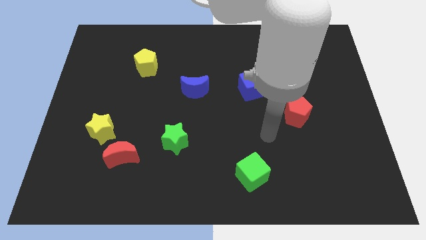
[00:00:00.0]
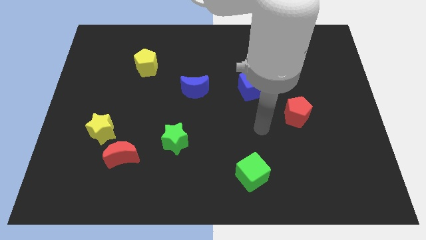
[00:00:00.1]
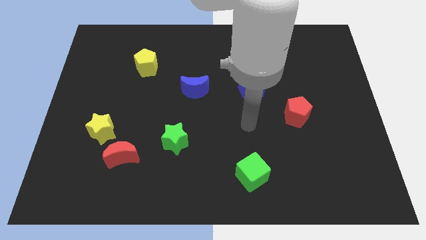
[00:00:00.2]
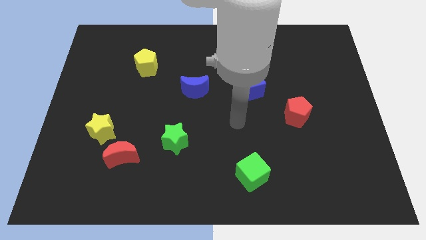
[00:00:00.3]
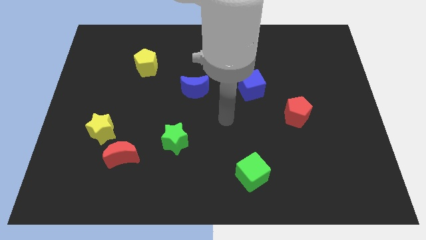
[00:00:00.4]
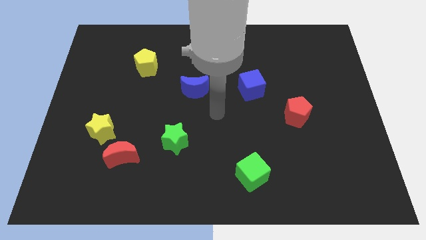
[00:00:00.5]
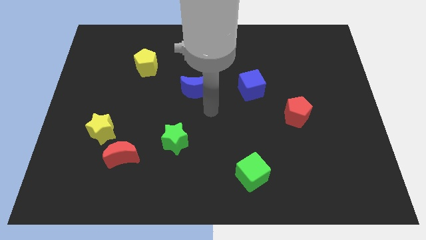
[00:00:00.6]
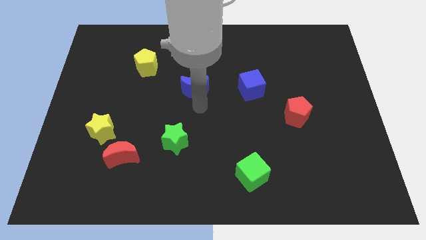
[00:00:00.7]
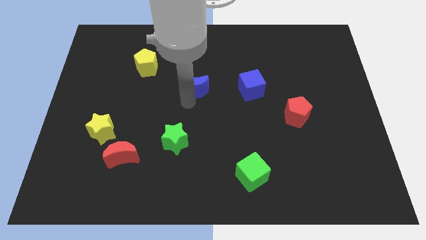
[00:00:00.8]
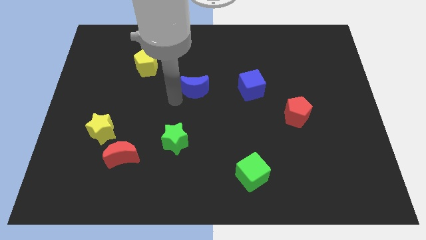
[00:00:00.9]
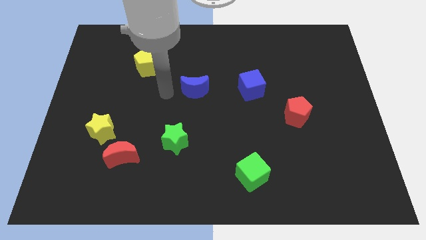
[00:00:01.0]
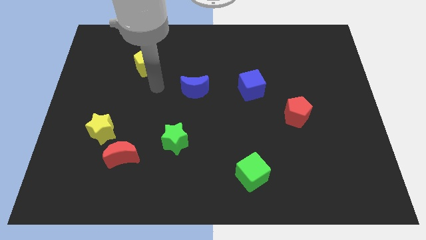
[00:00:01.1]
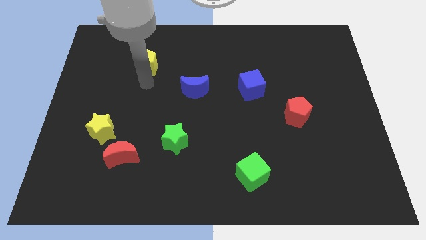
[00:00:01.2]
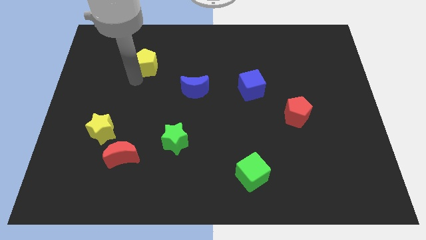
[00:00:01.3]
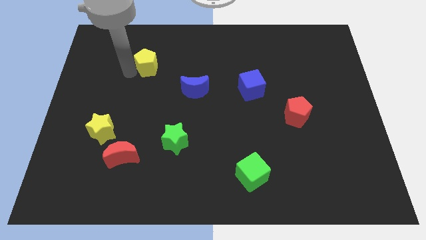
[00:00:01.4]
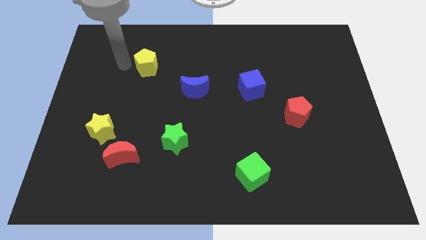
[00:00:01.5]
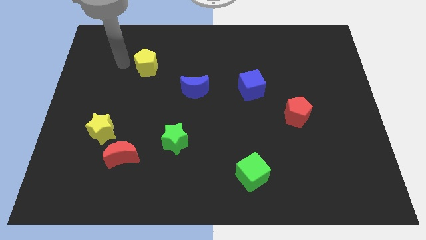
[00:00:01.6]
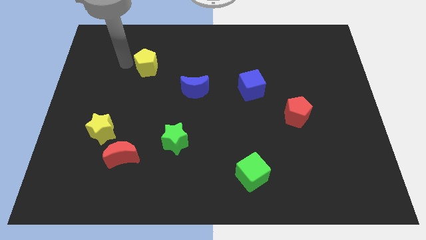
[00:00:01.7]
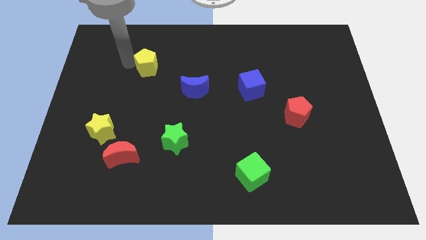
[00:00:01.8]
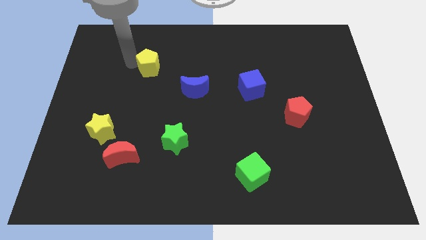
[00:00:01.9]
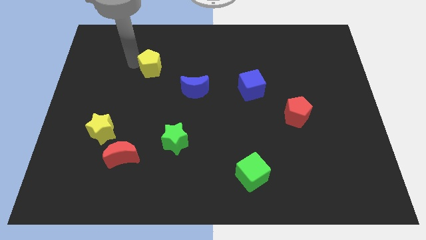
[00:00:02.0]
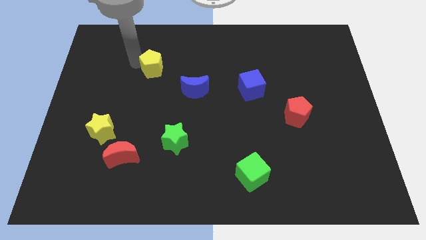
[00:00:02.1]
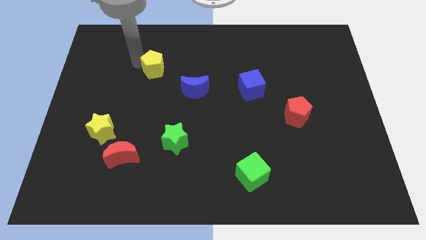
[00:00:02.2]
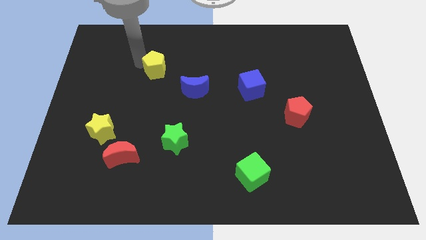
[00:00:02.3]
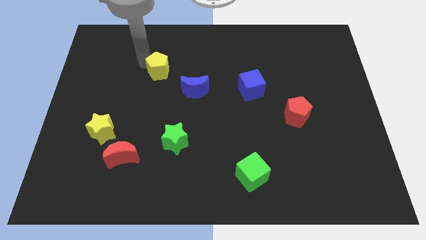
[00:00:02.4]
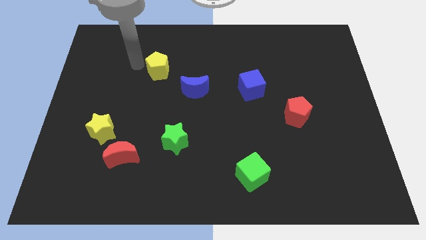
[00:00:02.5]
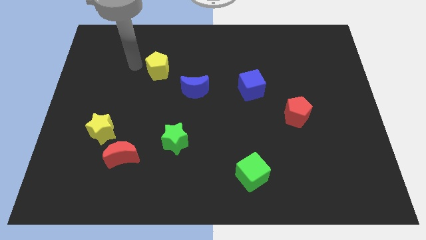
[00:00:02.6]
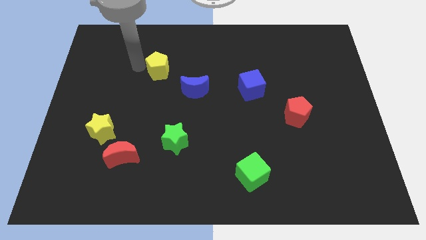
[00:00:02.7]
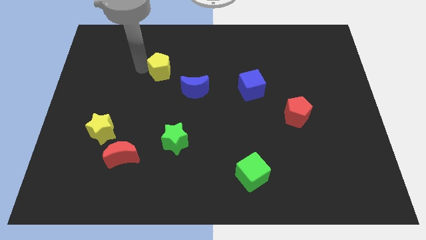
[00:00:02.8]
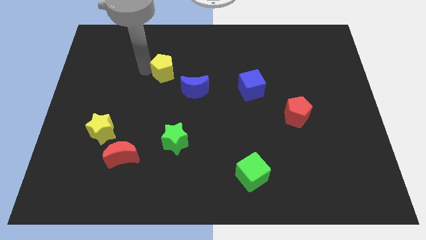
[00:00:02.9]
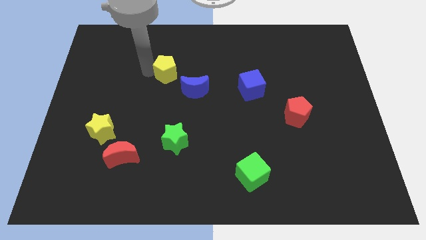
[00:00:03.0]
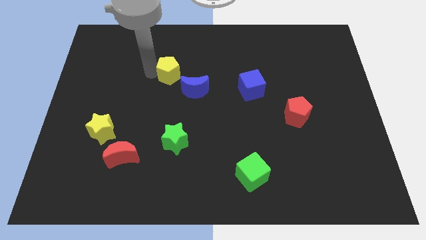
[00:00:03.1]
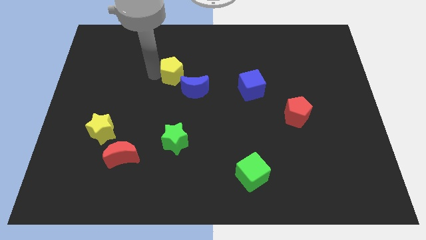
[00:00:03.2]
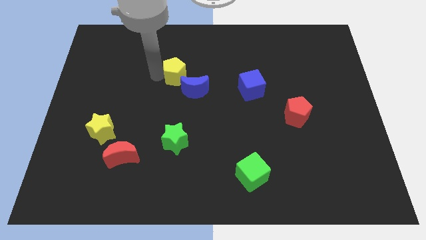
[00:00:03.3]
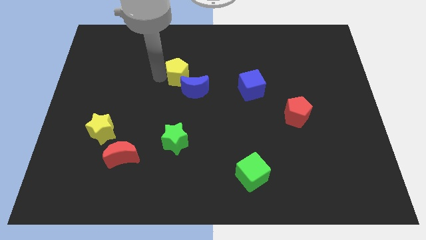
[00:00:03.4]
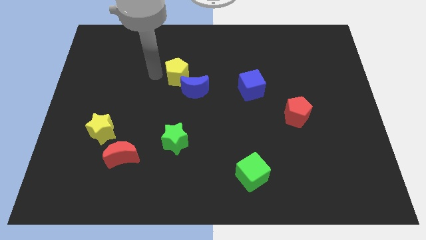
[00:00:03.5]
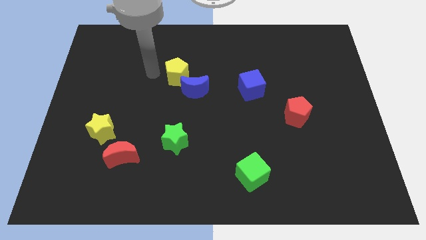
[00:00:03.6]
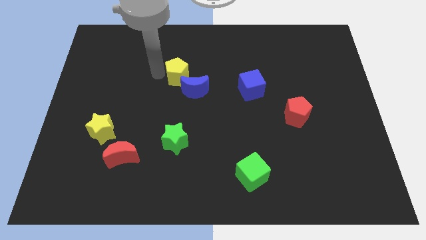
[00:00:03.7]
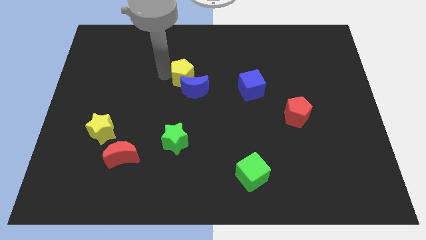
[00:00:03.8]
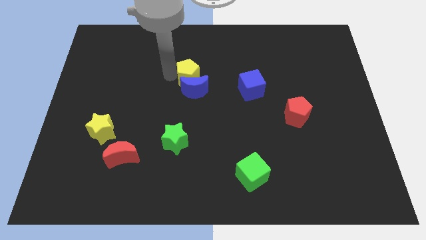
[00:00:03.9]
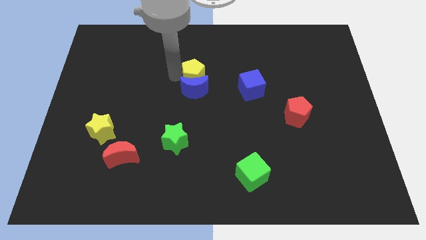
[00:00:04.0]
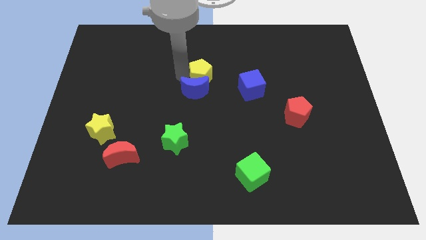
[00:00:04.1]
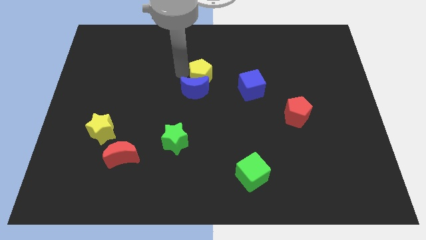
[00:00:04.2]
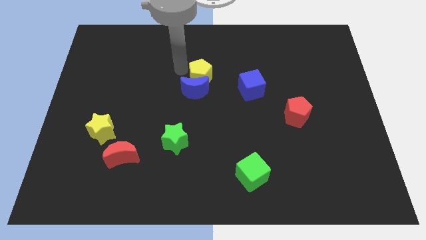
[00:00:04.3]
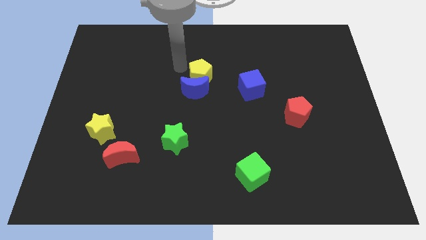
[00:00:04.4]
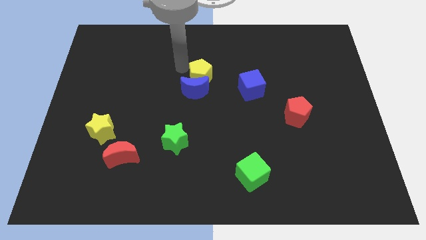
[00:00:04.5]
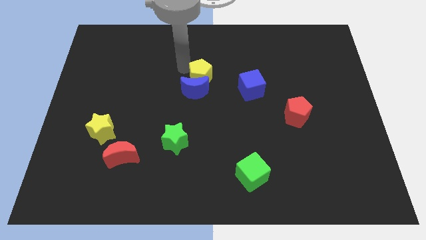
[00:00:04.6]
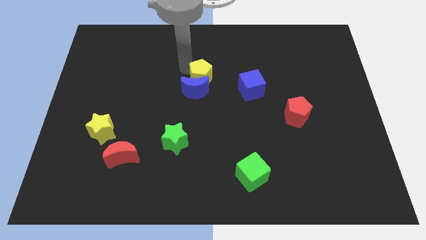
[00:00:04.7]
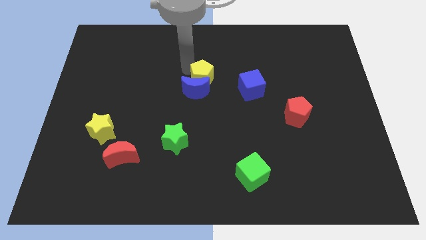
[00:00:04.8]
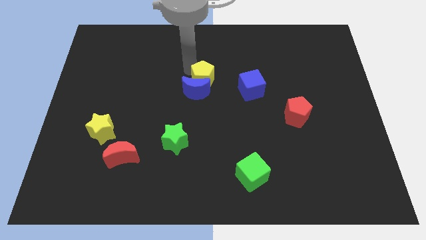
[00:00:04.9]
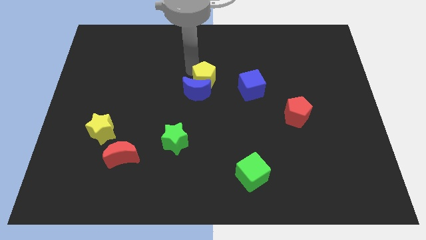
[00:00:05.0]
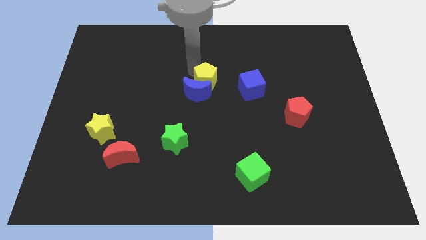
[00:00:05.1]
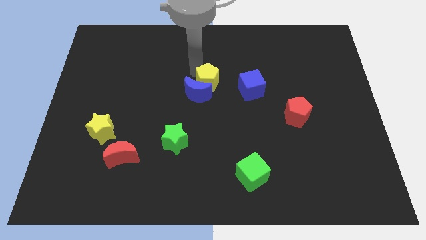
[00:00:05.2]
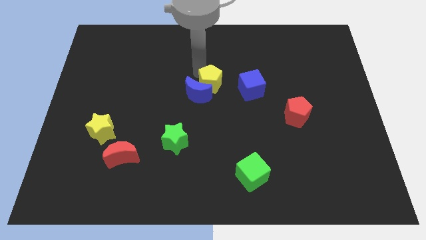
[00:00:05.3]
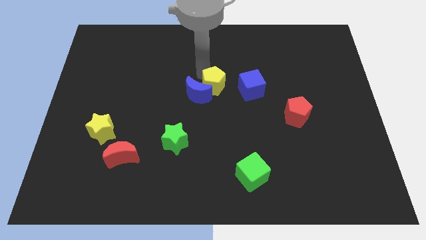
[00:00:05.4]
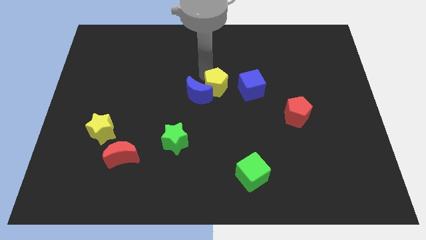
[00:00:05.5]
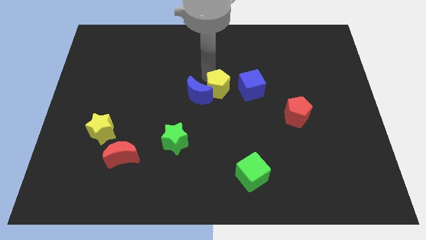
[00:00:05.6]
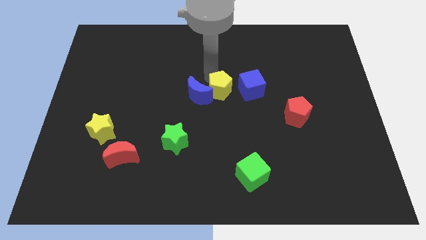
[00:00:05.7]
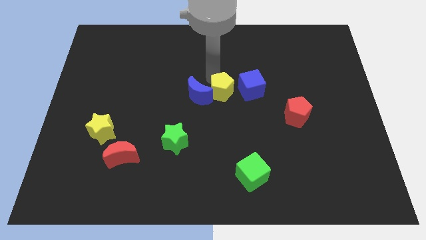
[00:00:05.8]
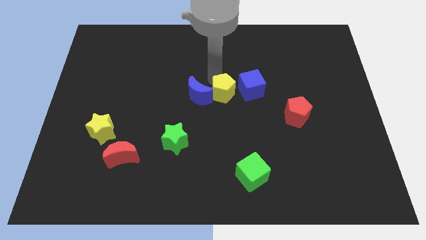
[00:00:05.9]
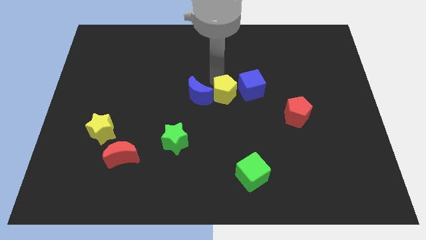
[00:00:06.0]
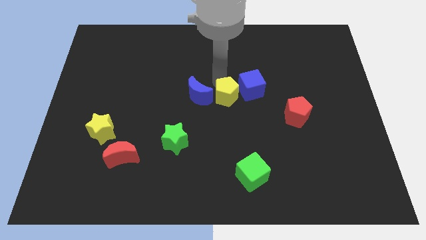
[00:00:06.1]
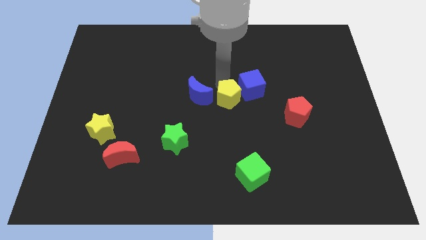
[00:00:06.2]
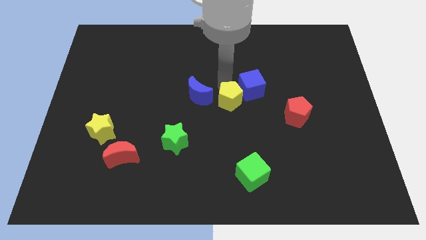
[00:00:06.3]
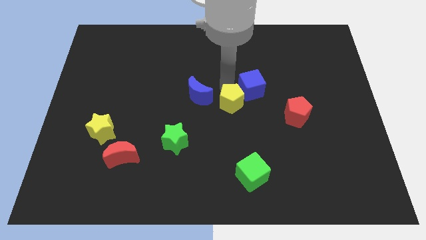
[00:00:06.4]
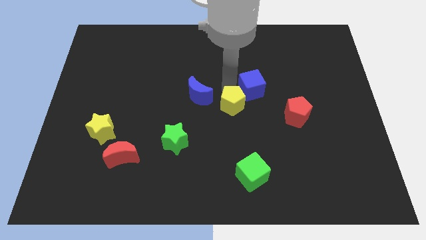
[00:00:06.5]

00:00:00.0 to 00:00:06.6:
push the yellow pentagon to the left of the red pentagon

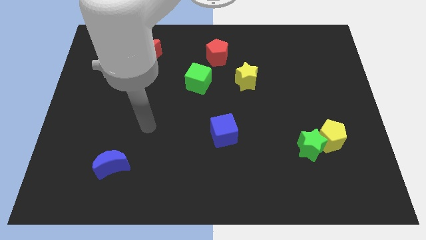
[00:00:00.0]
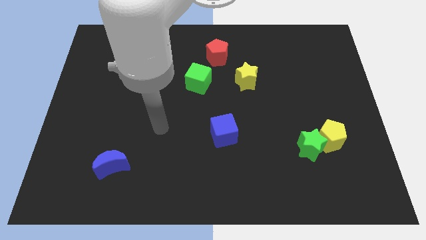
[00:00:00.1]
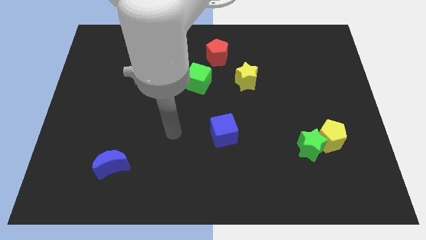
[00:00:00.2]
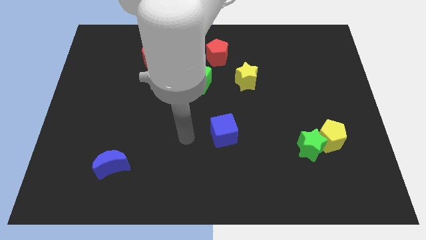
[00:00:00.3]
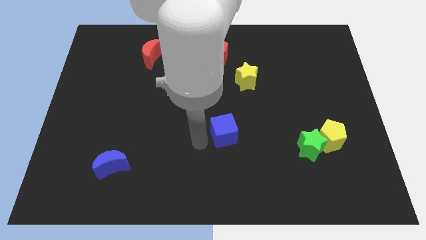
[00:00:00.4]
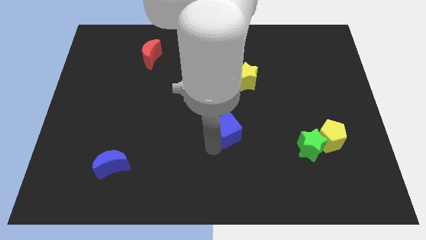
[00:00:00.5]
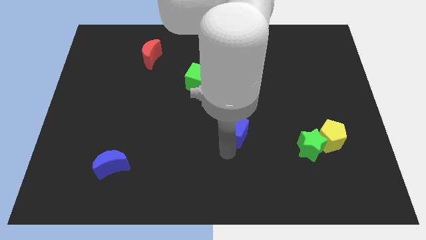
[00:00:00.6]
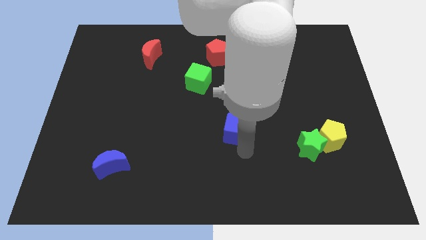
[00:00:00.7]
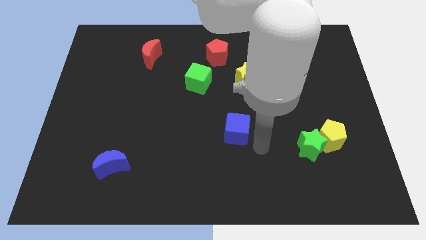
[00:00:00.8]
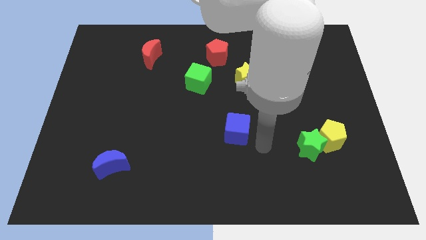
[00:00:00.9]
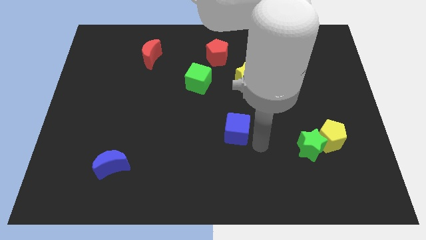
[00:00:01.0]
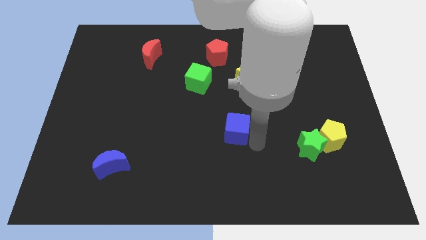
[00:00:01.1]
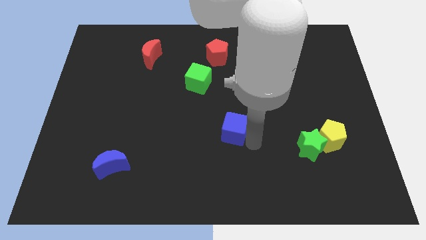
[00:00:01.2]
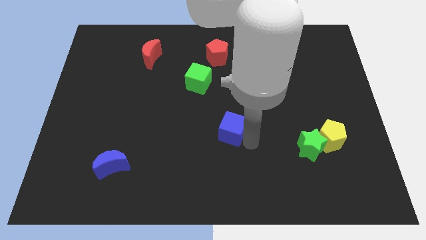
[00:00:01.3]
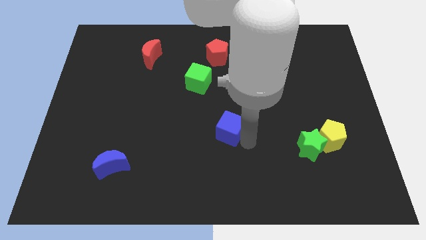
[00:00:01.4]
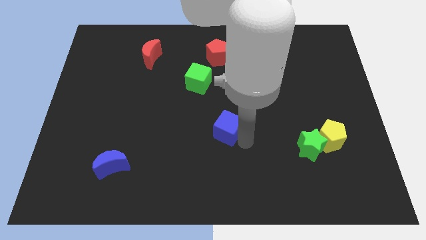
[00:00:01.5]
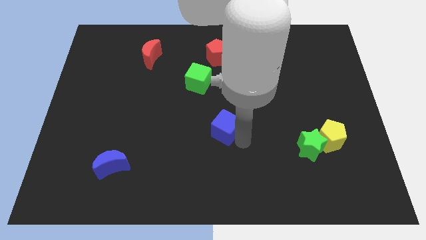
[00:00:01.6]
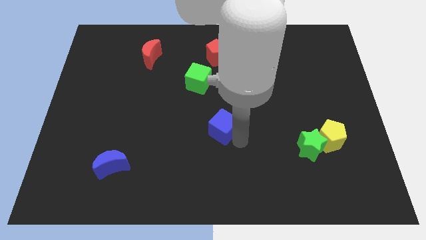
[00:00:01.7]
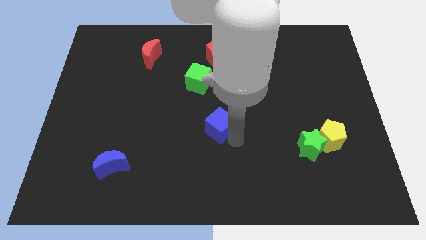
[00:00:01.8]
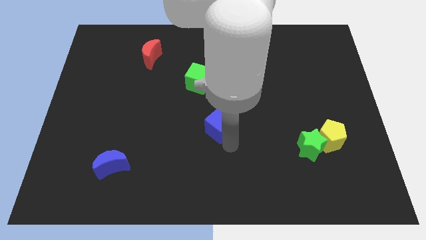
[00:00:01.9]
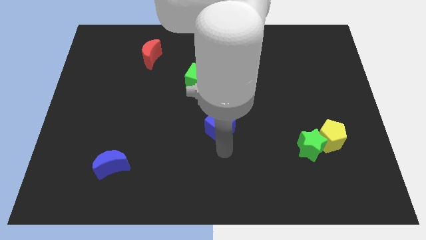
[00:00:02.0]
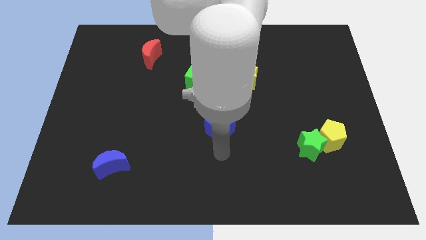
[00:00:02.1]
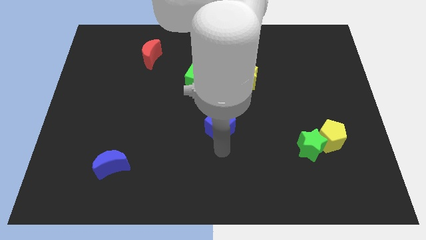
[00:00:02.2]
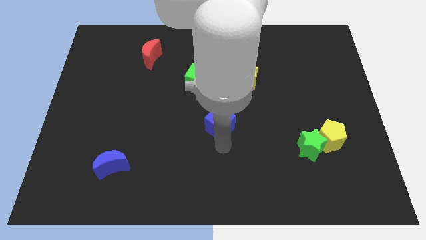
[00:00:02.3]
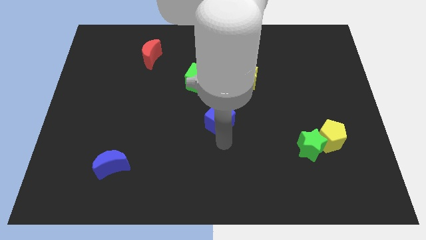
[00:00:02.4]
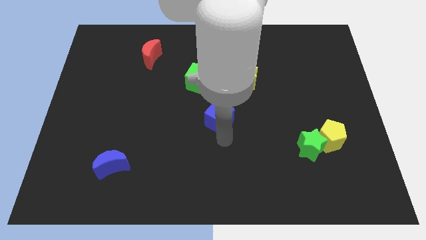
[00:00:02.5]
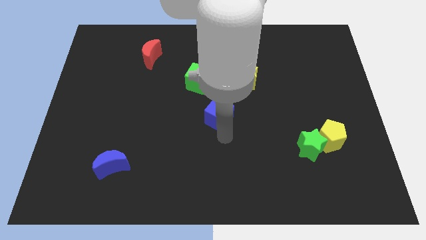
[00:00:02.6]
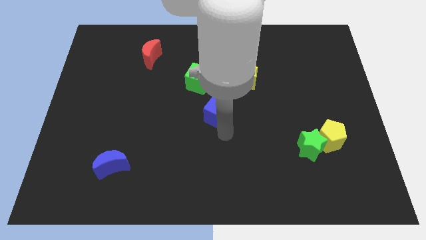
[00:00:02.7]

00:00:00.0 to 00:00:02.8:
put the blue cube to the bottom right side of the green cube
